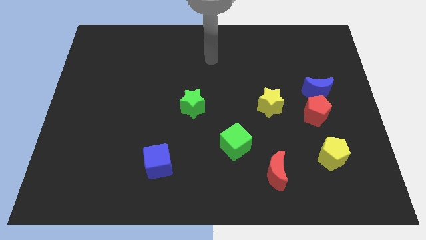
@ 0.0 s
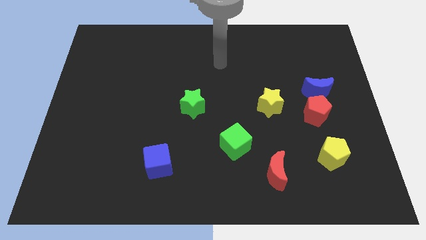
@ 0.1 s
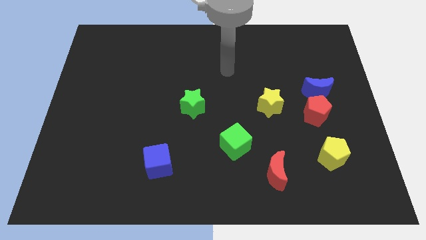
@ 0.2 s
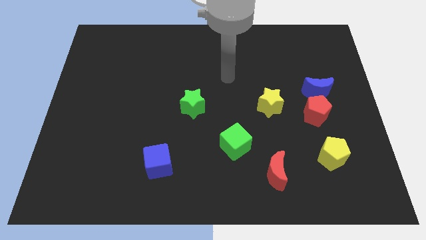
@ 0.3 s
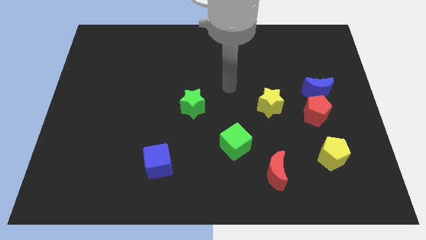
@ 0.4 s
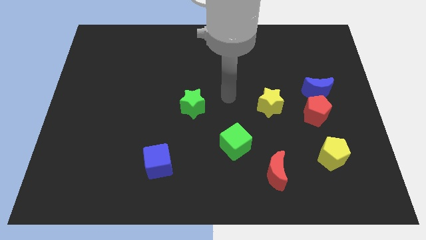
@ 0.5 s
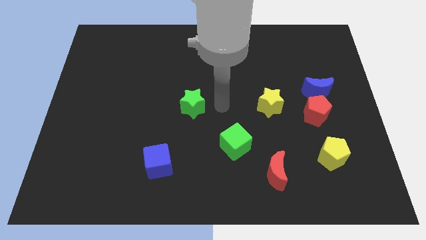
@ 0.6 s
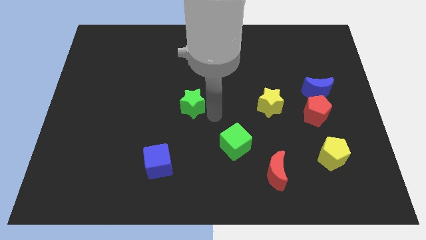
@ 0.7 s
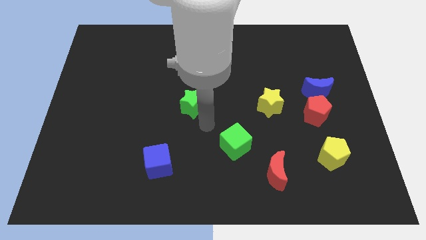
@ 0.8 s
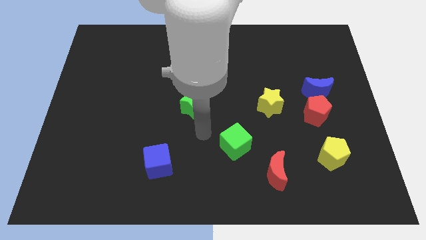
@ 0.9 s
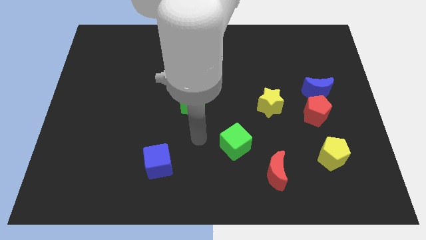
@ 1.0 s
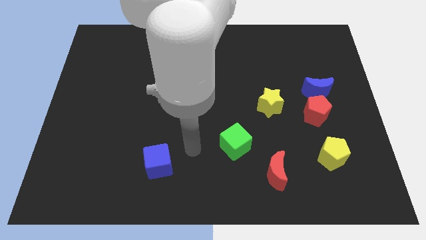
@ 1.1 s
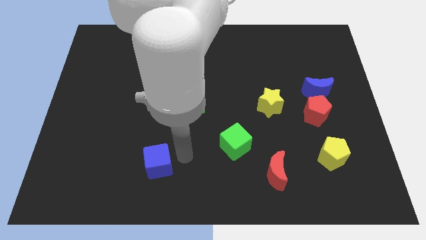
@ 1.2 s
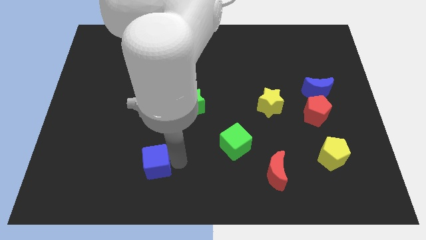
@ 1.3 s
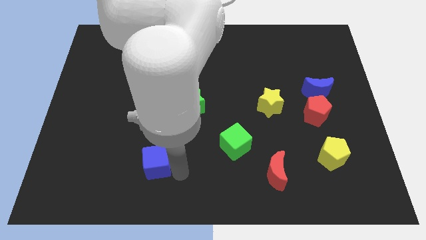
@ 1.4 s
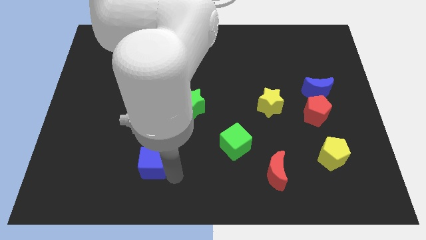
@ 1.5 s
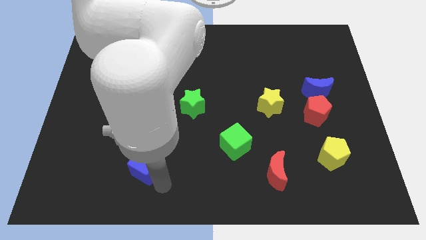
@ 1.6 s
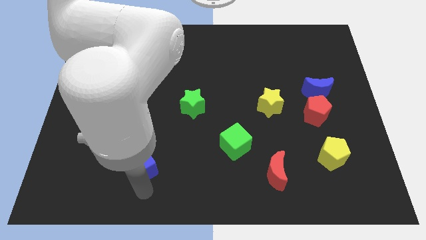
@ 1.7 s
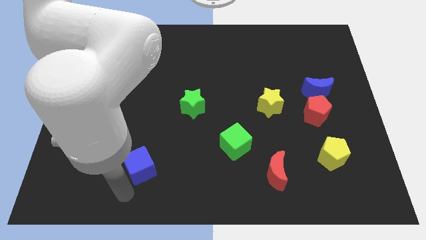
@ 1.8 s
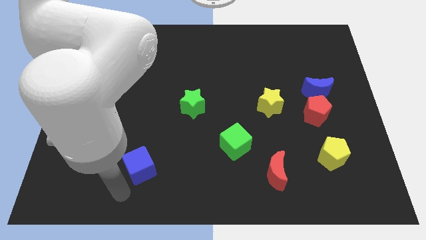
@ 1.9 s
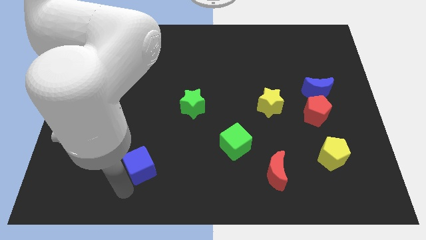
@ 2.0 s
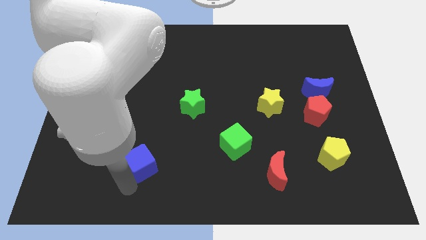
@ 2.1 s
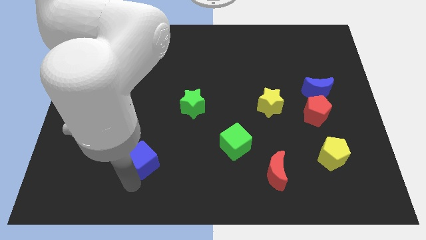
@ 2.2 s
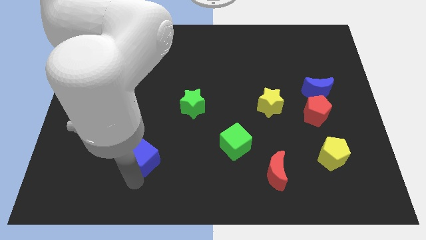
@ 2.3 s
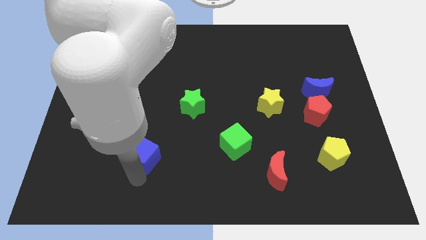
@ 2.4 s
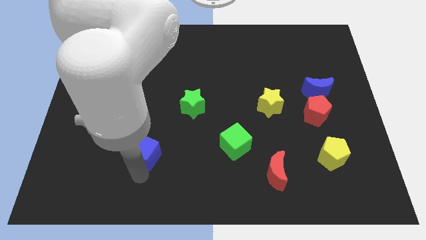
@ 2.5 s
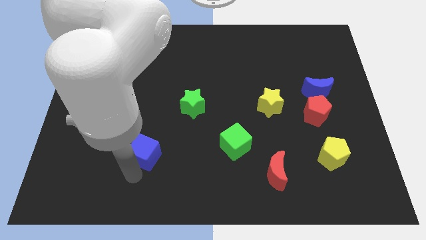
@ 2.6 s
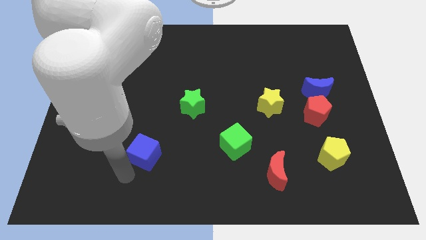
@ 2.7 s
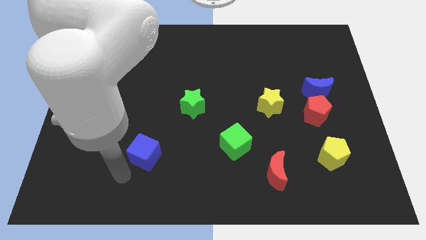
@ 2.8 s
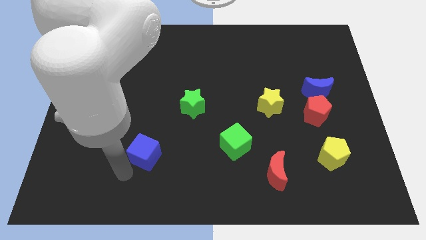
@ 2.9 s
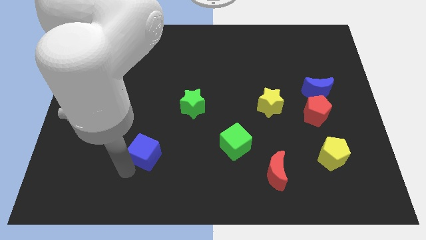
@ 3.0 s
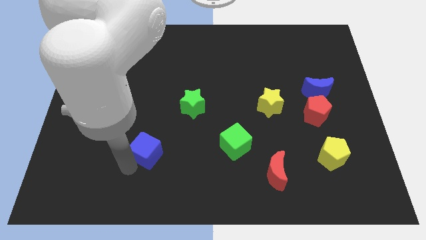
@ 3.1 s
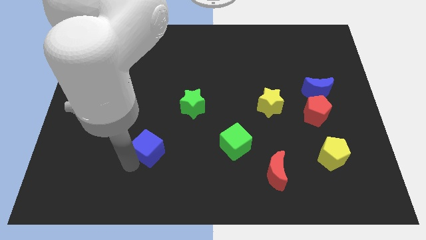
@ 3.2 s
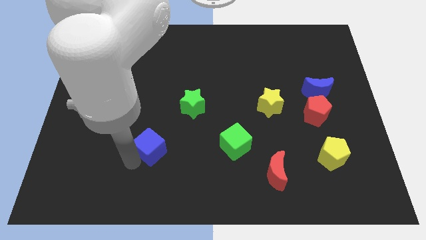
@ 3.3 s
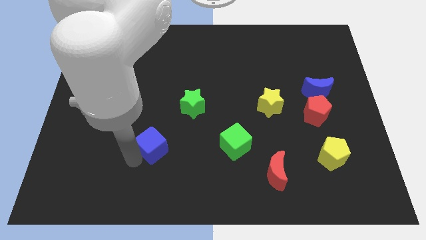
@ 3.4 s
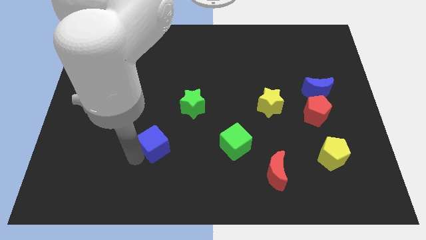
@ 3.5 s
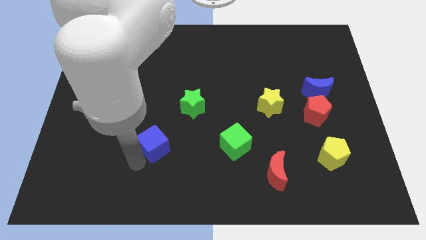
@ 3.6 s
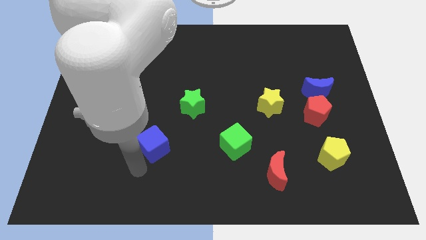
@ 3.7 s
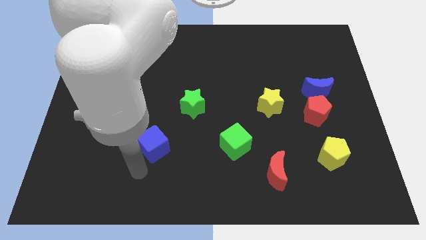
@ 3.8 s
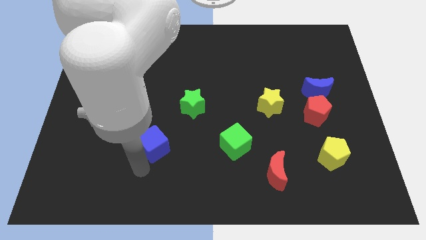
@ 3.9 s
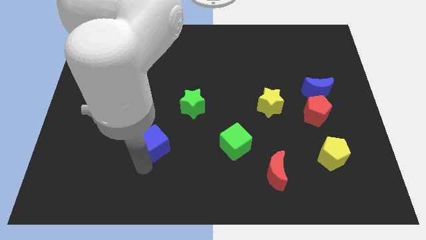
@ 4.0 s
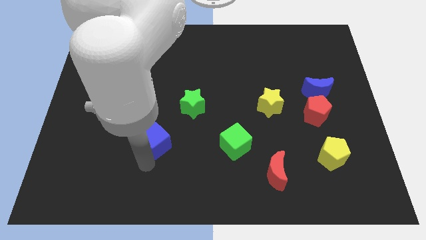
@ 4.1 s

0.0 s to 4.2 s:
slide the blue cube to the bottom left of the green star

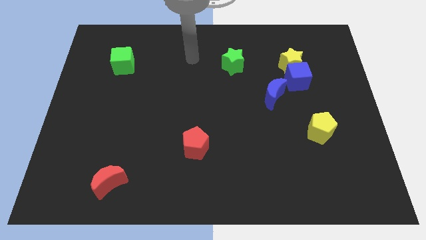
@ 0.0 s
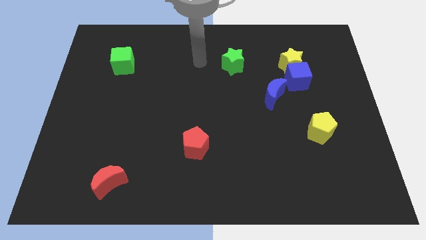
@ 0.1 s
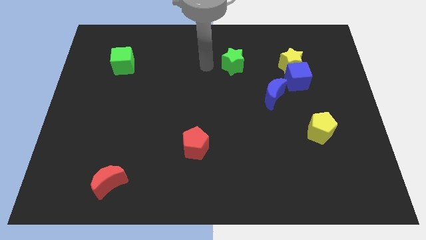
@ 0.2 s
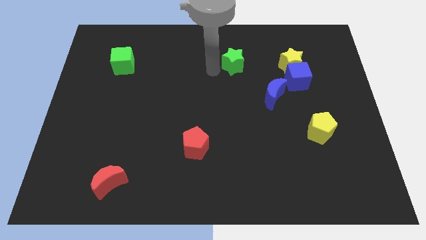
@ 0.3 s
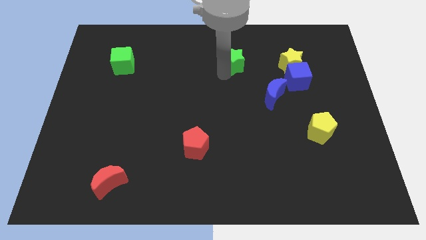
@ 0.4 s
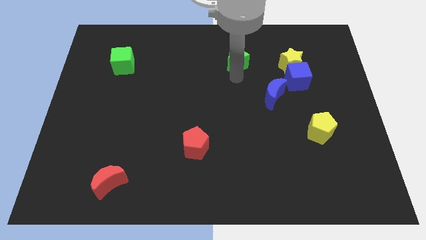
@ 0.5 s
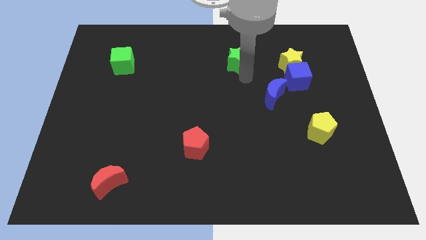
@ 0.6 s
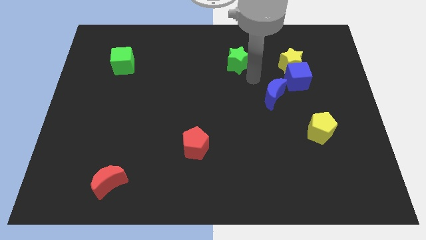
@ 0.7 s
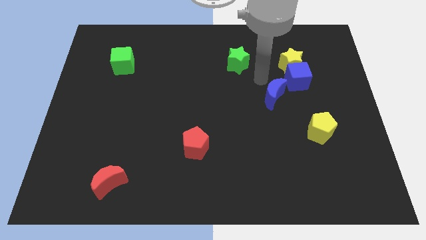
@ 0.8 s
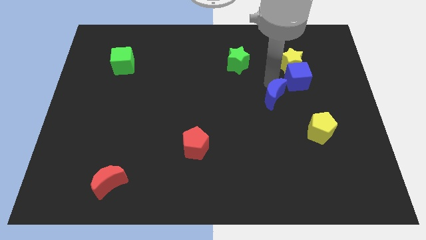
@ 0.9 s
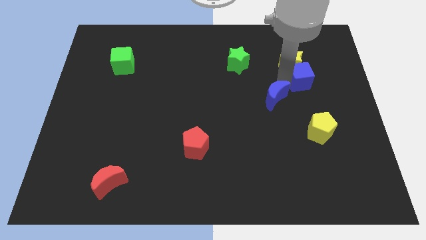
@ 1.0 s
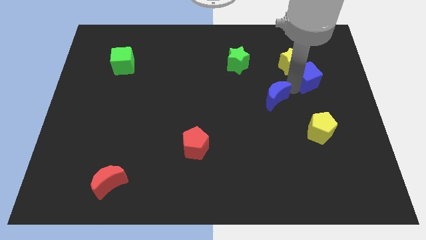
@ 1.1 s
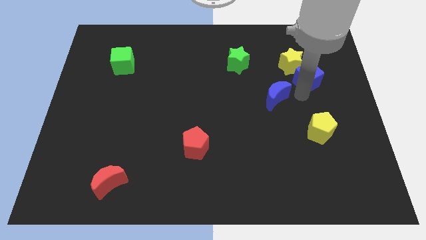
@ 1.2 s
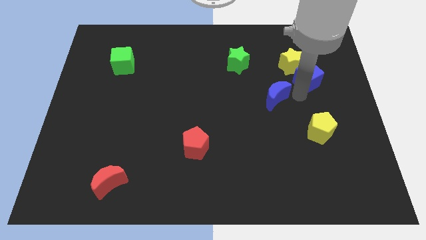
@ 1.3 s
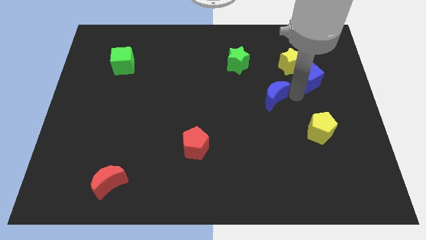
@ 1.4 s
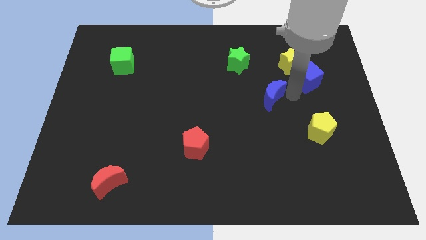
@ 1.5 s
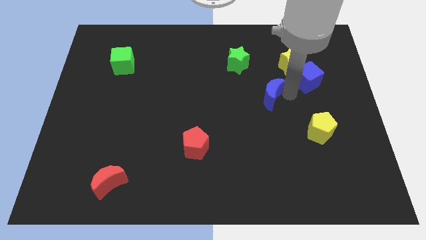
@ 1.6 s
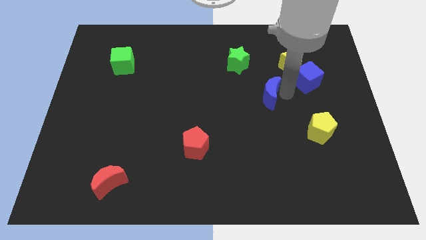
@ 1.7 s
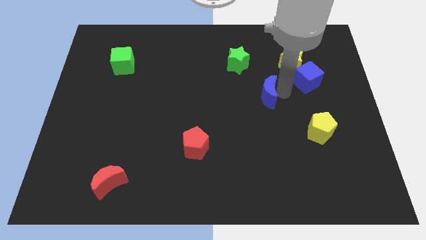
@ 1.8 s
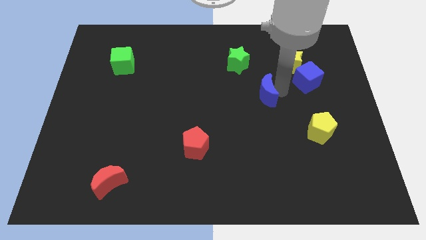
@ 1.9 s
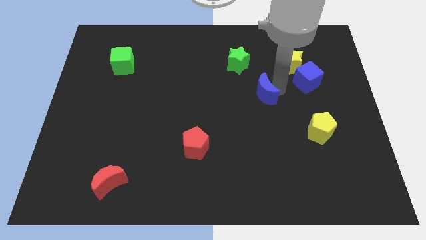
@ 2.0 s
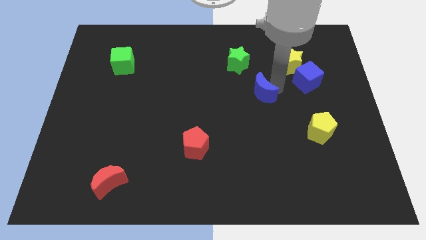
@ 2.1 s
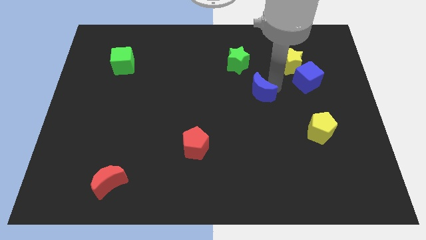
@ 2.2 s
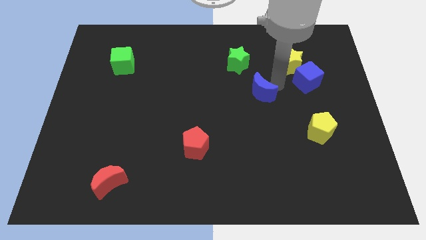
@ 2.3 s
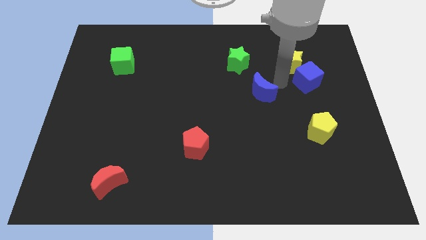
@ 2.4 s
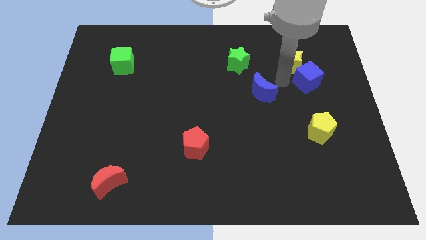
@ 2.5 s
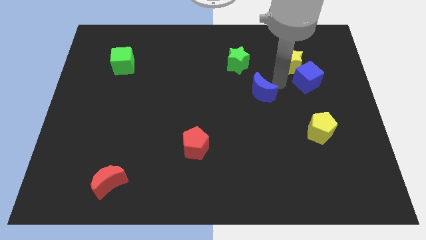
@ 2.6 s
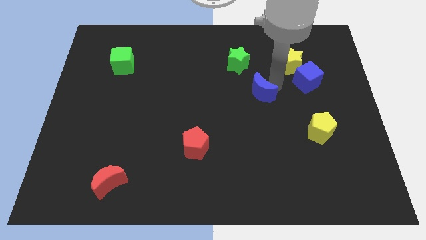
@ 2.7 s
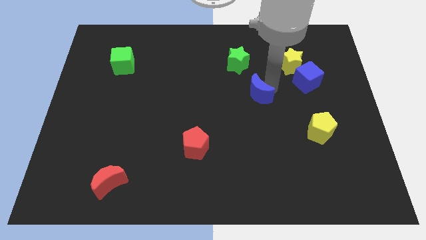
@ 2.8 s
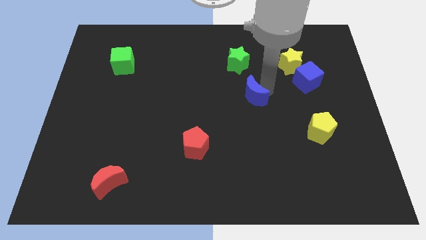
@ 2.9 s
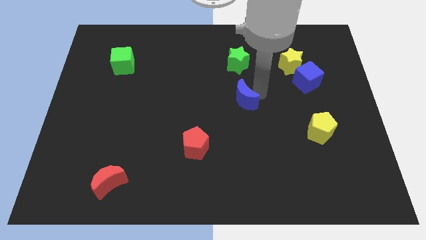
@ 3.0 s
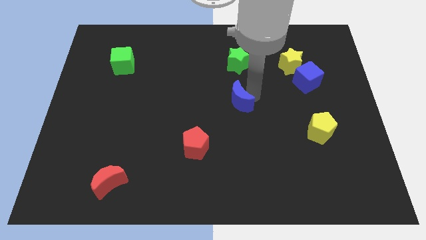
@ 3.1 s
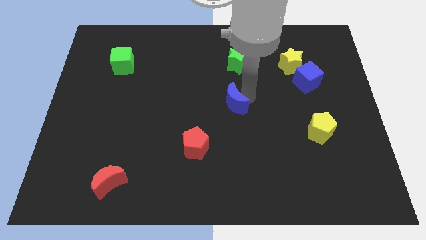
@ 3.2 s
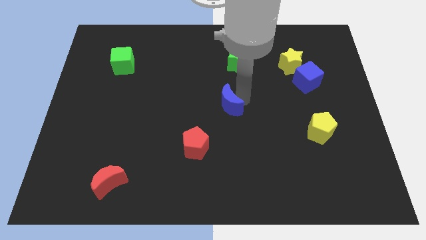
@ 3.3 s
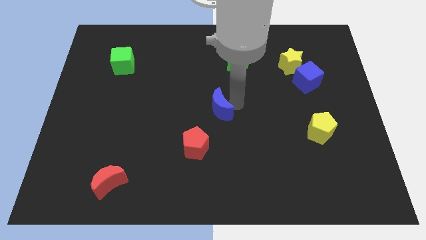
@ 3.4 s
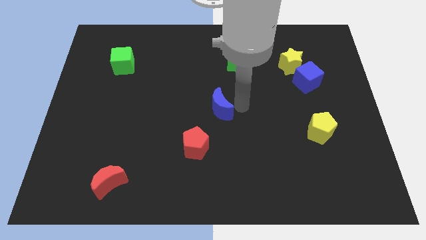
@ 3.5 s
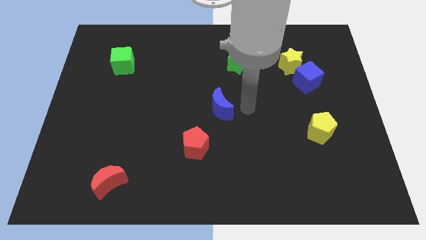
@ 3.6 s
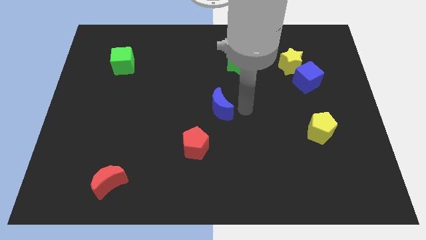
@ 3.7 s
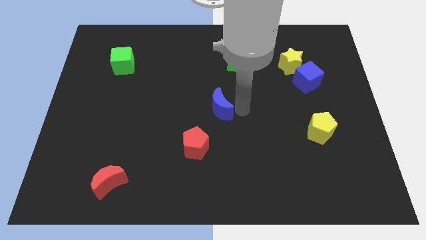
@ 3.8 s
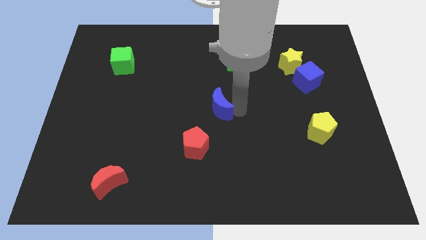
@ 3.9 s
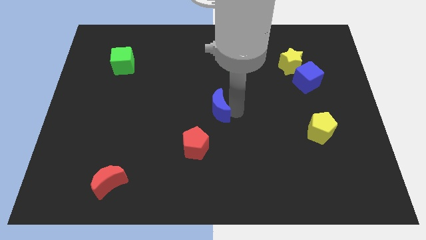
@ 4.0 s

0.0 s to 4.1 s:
put the blue moon to the top side of the red pentagon
